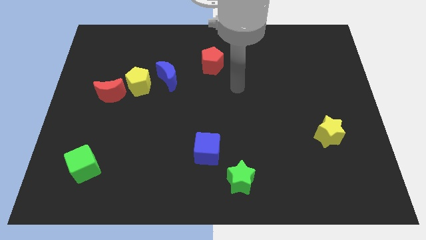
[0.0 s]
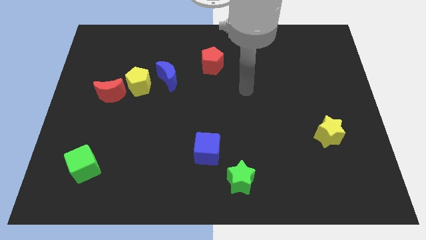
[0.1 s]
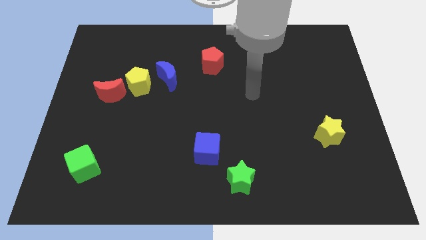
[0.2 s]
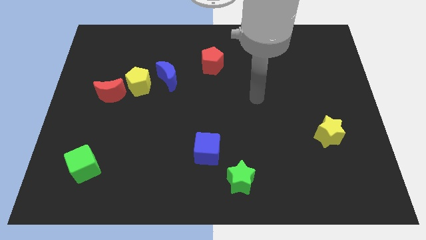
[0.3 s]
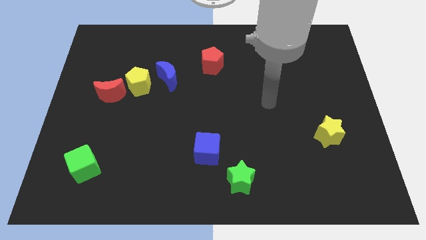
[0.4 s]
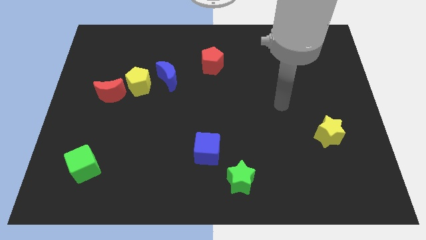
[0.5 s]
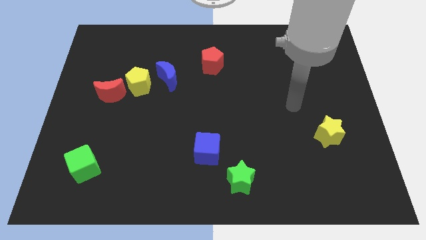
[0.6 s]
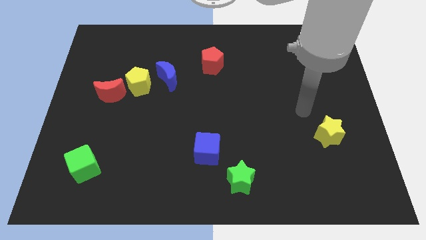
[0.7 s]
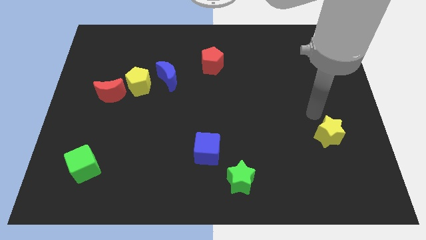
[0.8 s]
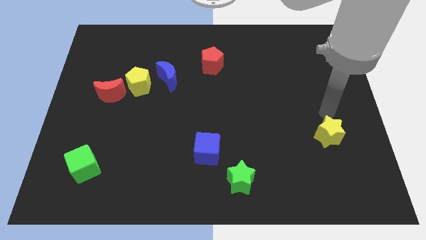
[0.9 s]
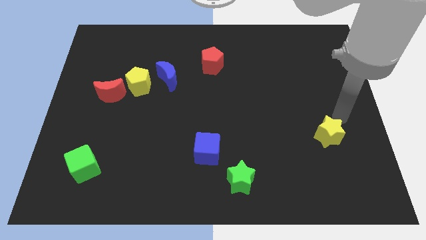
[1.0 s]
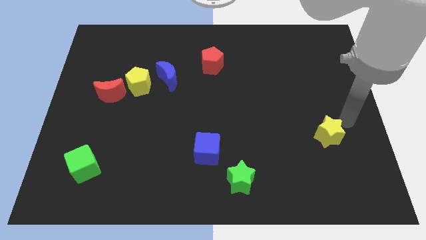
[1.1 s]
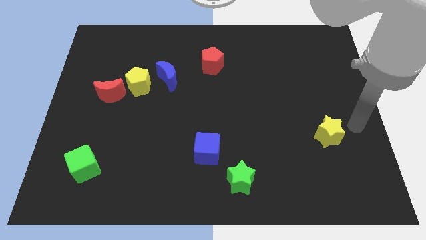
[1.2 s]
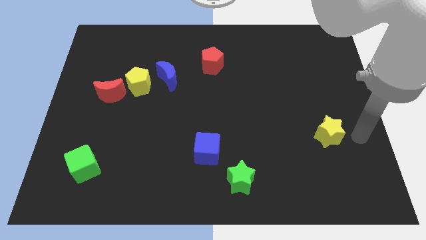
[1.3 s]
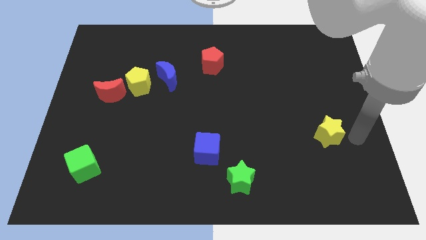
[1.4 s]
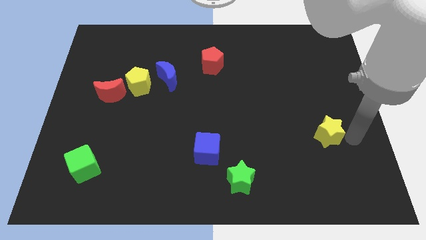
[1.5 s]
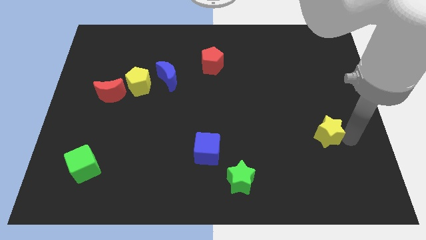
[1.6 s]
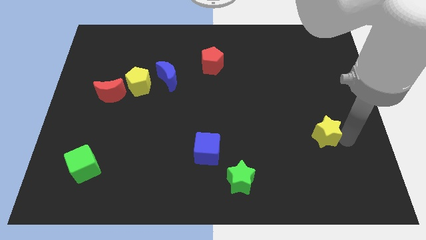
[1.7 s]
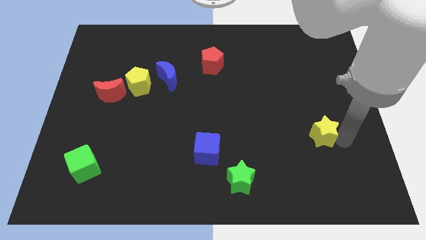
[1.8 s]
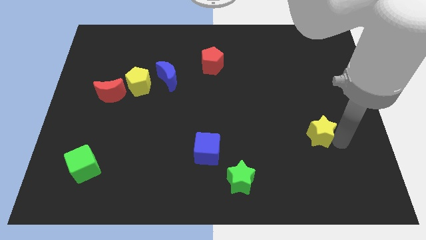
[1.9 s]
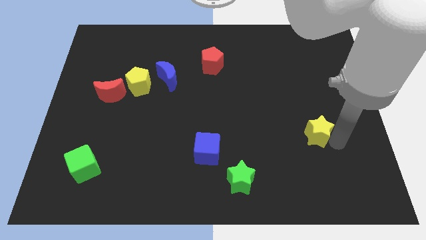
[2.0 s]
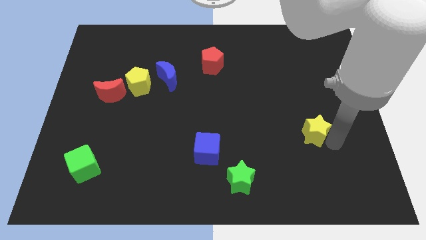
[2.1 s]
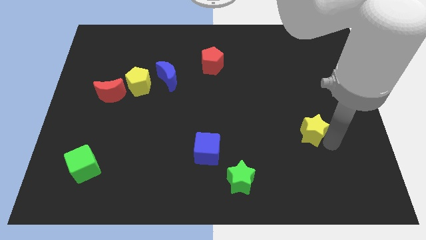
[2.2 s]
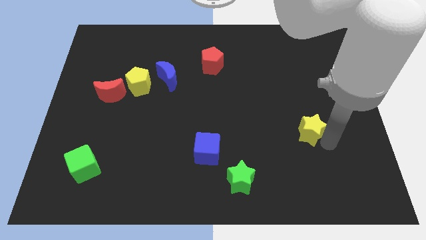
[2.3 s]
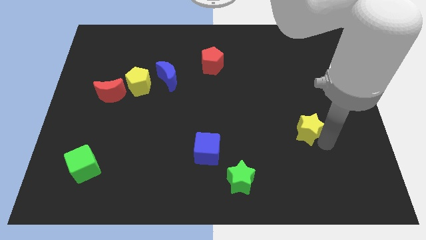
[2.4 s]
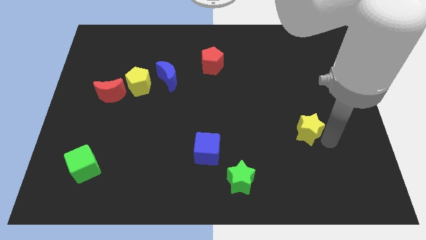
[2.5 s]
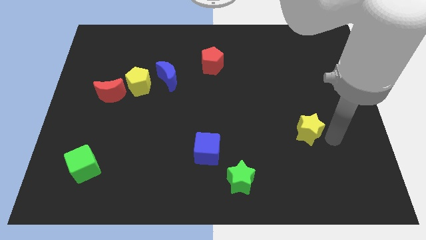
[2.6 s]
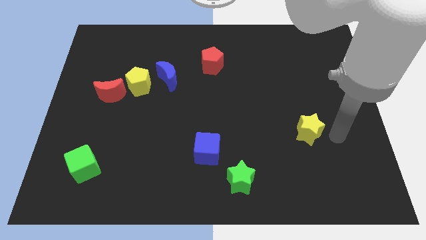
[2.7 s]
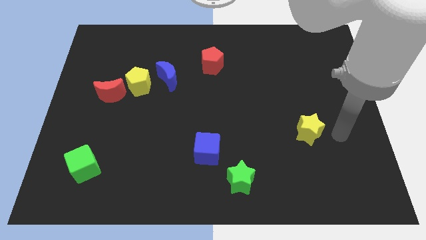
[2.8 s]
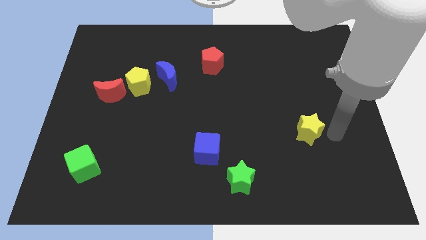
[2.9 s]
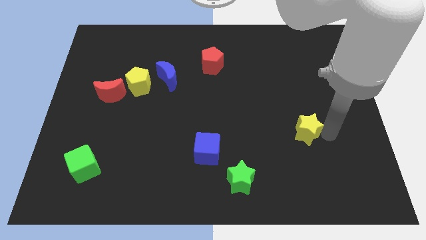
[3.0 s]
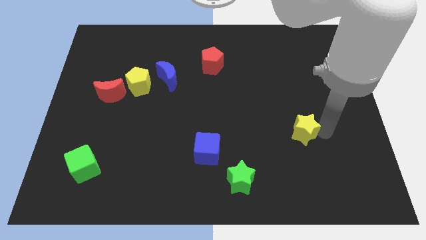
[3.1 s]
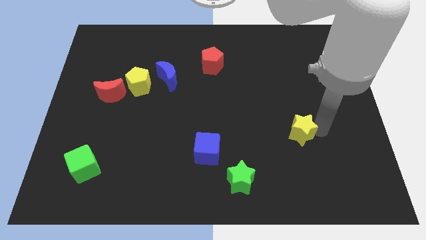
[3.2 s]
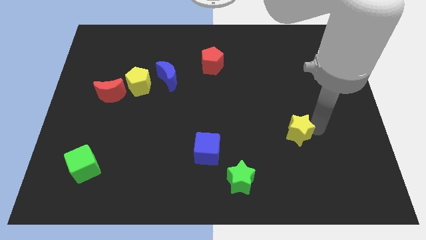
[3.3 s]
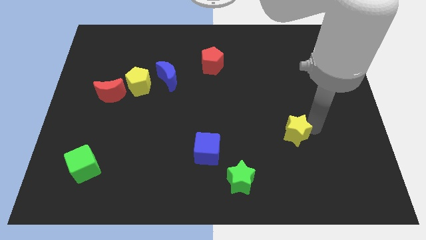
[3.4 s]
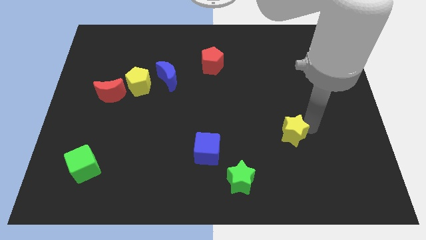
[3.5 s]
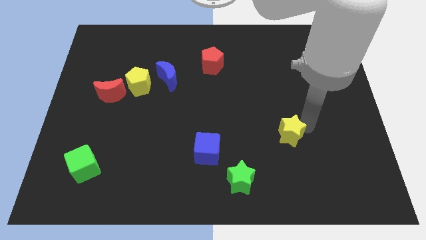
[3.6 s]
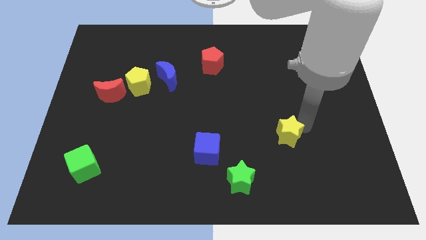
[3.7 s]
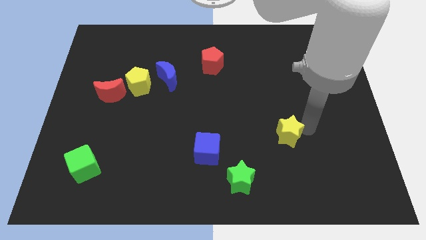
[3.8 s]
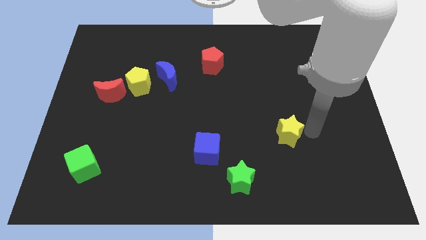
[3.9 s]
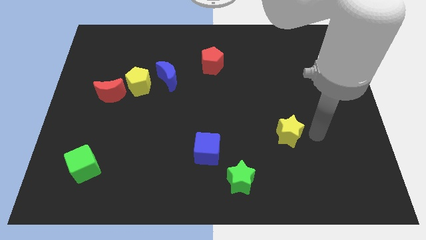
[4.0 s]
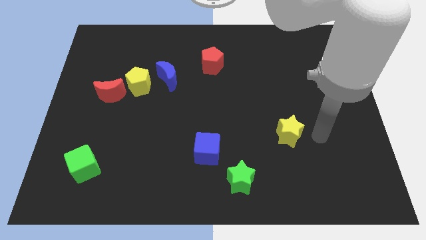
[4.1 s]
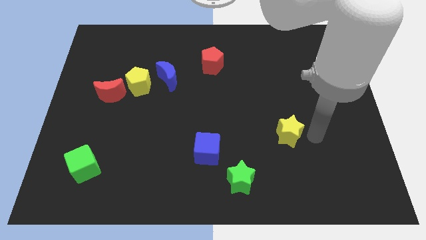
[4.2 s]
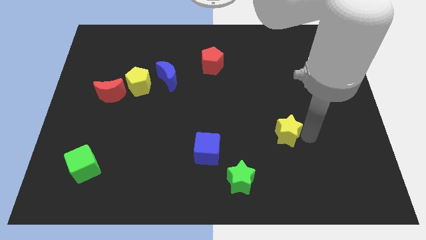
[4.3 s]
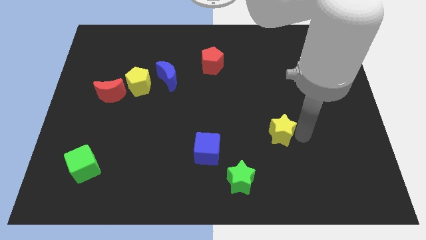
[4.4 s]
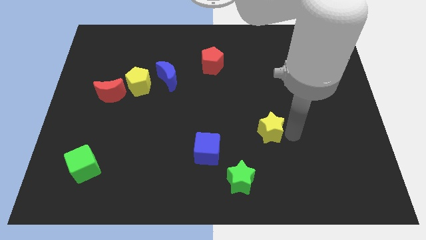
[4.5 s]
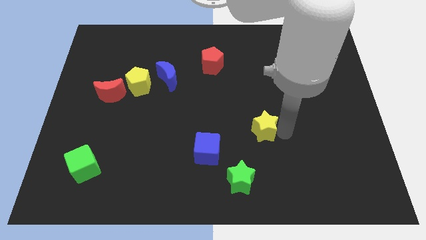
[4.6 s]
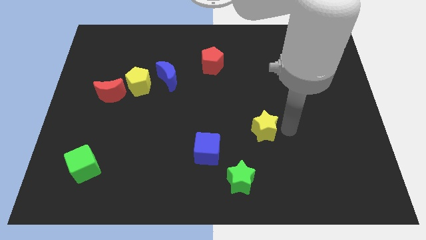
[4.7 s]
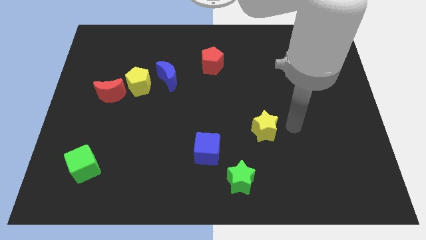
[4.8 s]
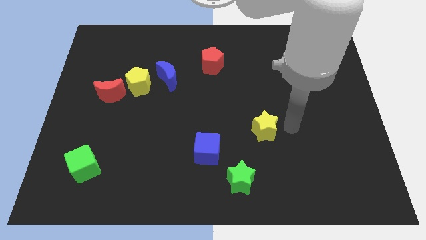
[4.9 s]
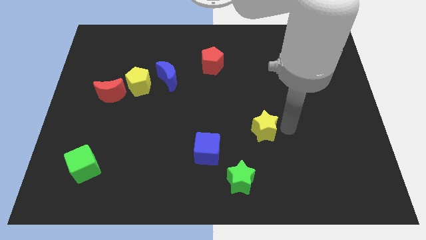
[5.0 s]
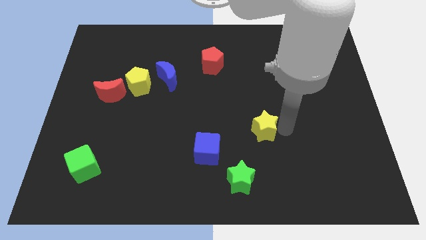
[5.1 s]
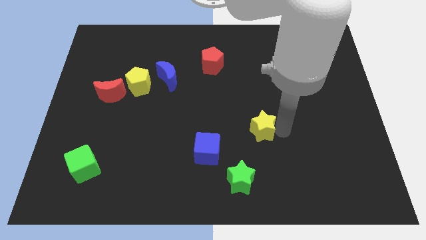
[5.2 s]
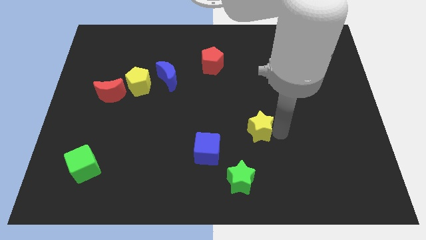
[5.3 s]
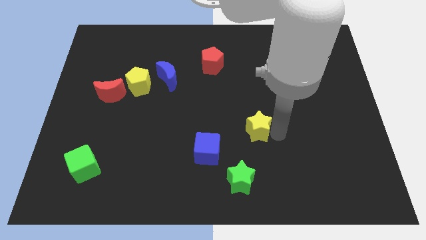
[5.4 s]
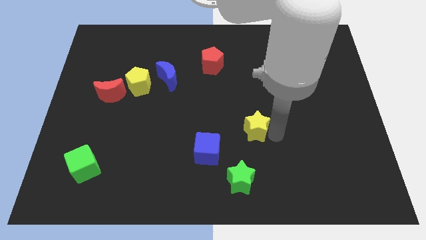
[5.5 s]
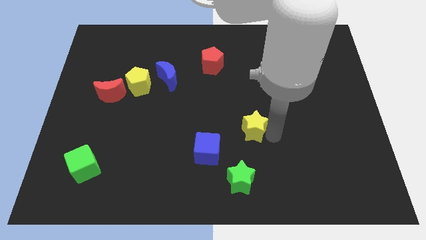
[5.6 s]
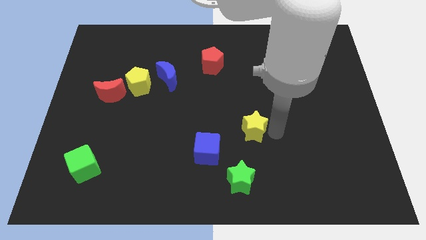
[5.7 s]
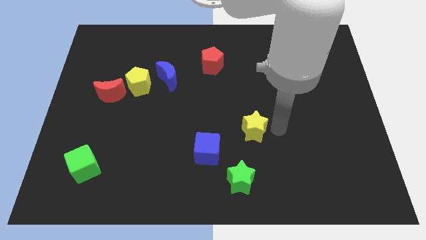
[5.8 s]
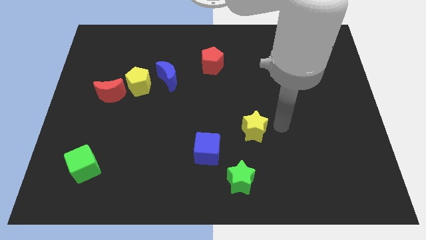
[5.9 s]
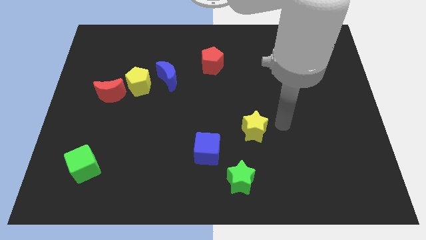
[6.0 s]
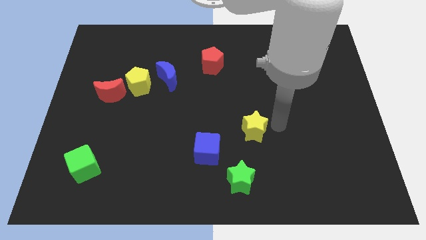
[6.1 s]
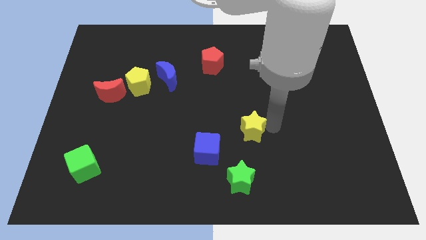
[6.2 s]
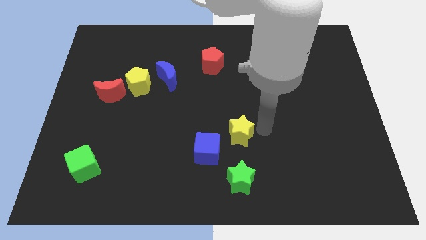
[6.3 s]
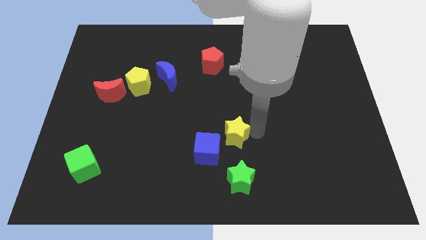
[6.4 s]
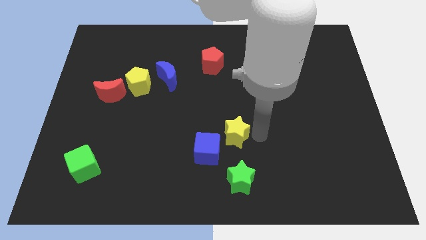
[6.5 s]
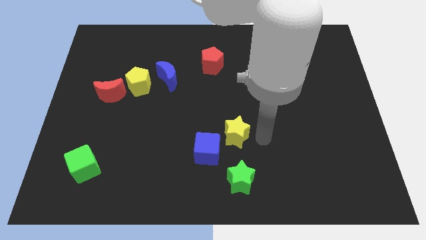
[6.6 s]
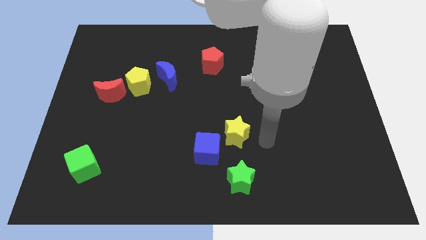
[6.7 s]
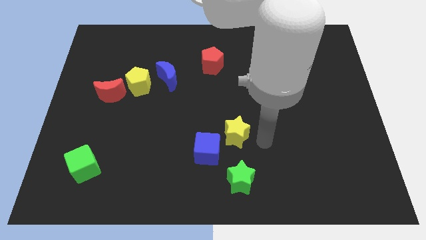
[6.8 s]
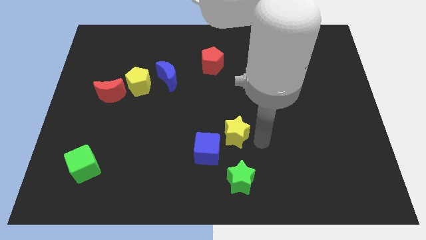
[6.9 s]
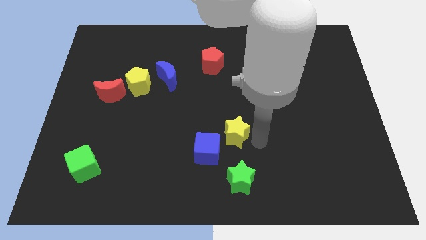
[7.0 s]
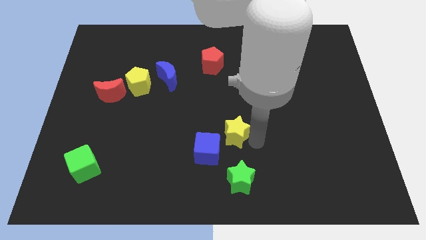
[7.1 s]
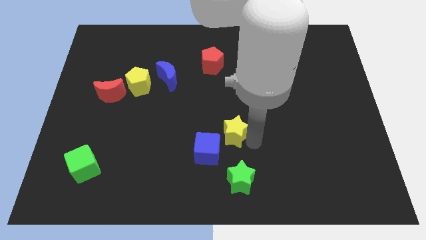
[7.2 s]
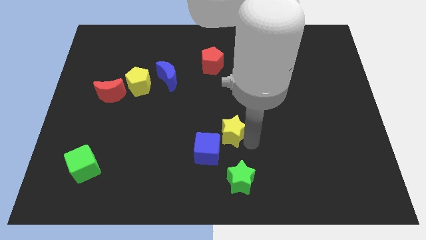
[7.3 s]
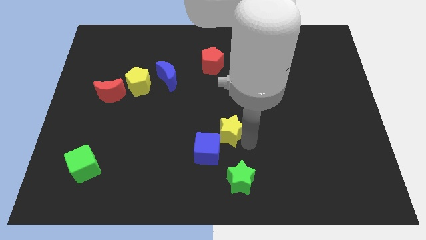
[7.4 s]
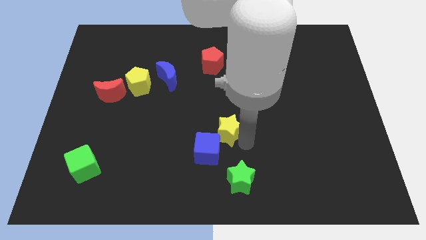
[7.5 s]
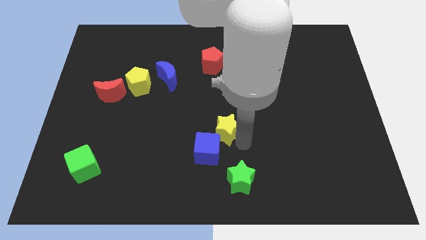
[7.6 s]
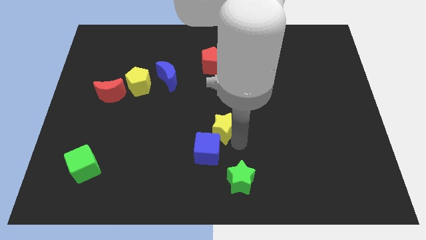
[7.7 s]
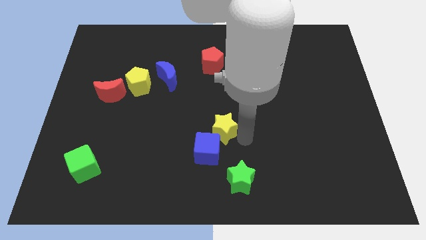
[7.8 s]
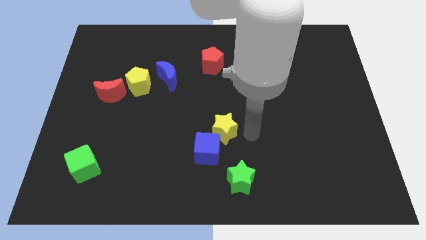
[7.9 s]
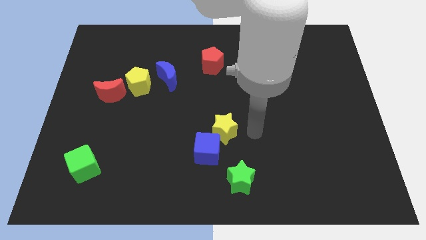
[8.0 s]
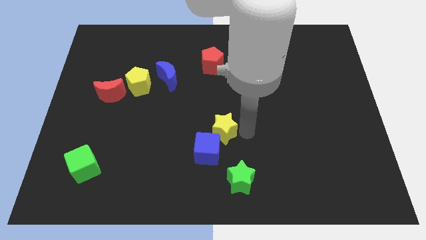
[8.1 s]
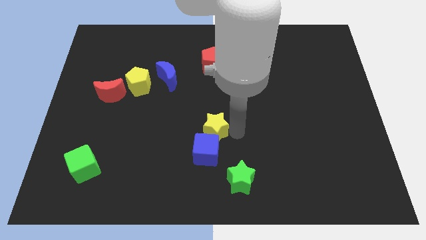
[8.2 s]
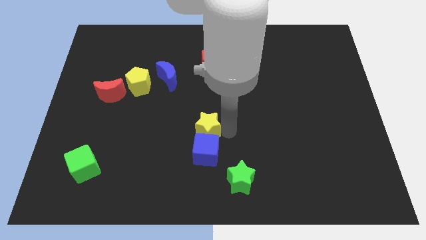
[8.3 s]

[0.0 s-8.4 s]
slide the yellow star to the top left of the blue cube
